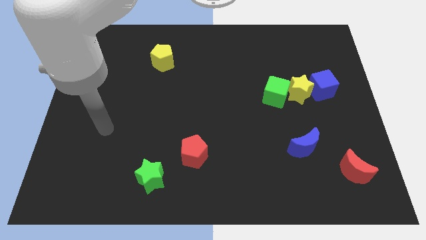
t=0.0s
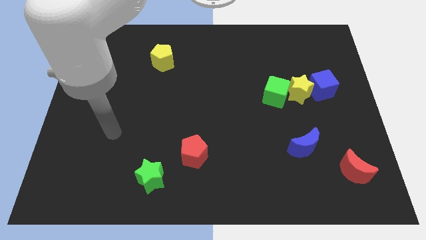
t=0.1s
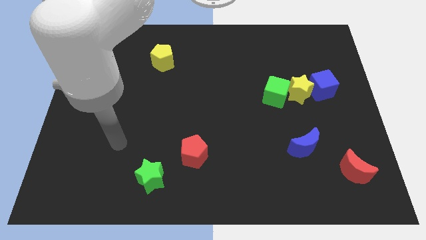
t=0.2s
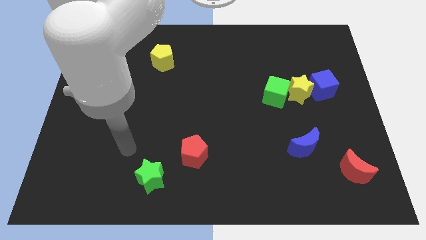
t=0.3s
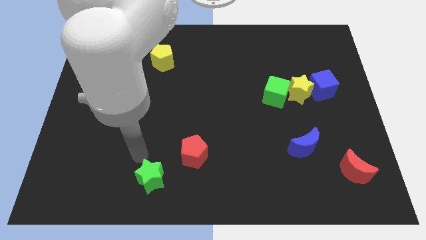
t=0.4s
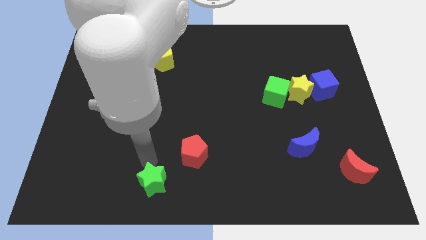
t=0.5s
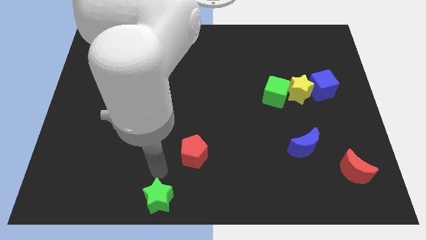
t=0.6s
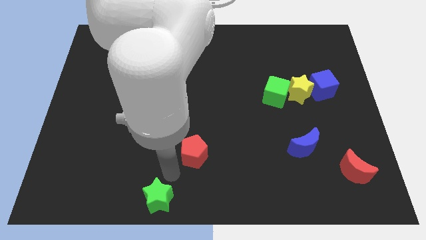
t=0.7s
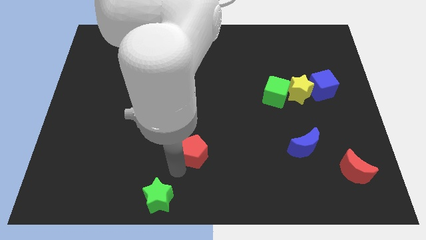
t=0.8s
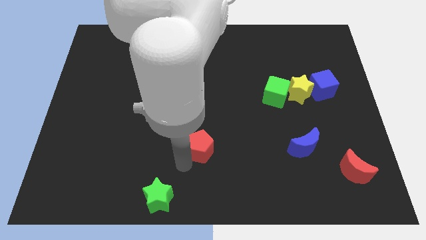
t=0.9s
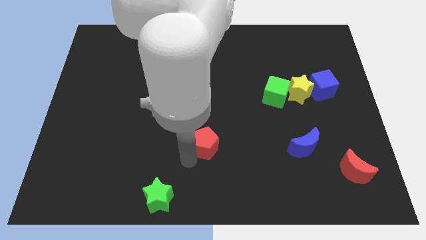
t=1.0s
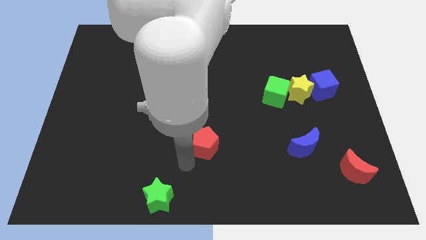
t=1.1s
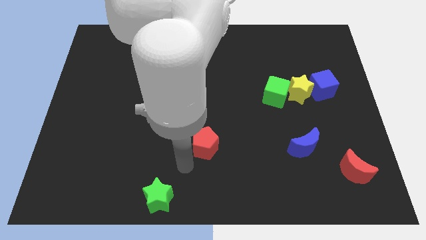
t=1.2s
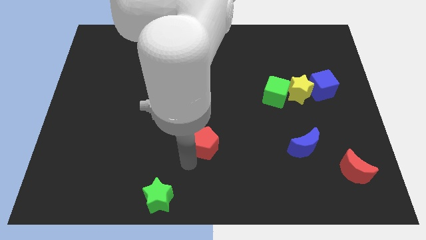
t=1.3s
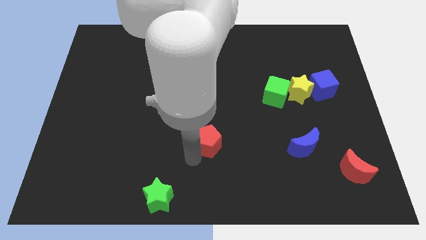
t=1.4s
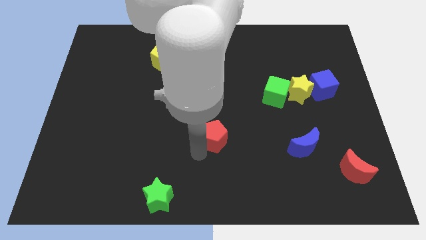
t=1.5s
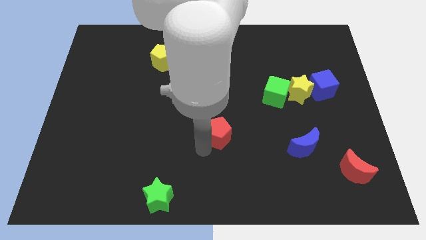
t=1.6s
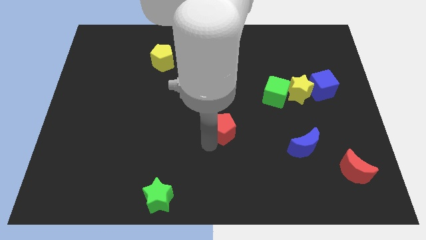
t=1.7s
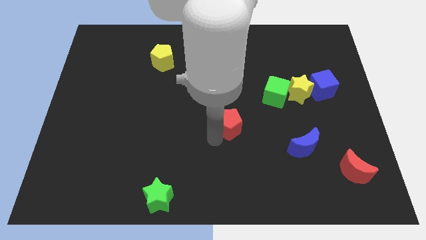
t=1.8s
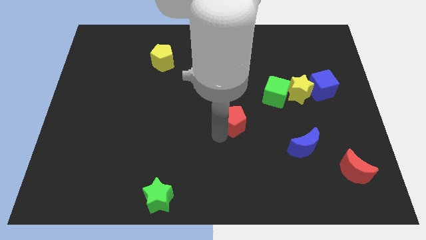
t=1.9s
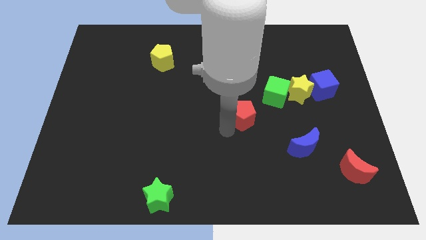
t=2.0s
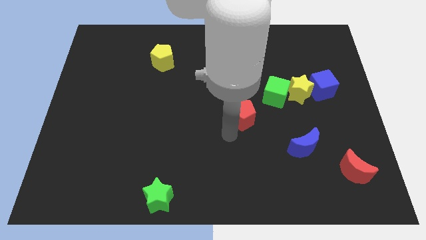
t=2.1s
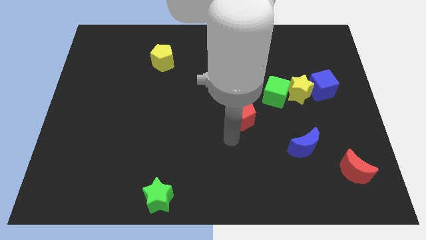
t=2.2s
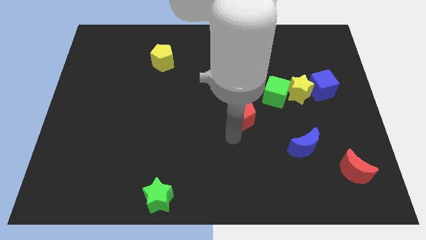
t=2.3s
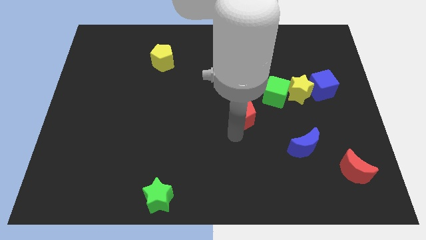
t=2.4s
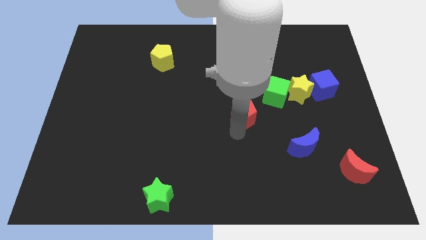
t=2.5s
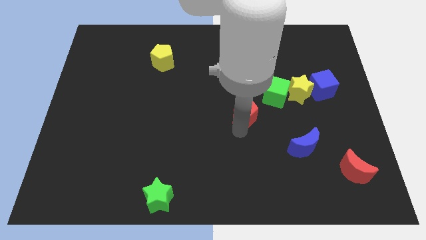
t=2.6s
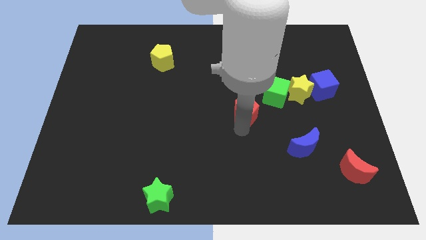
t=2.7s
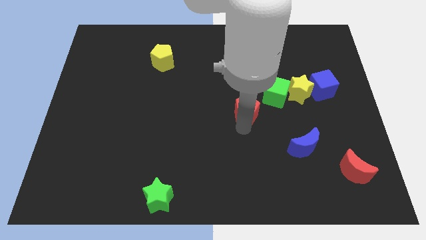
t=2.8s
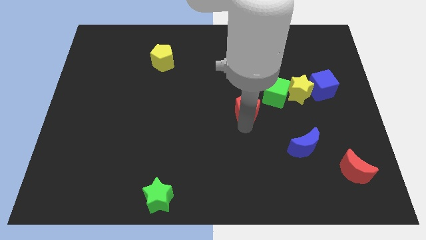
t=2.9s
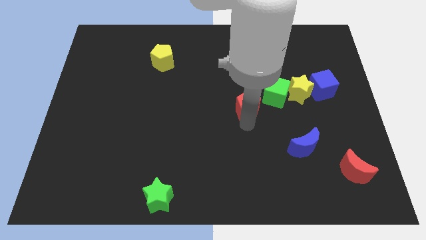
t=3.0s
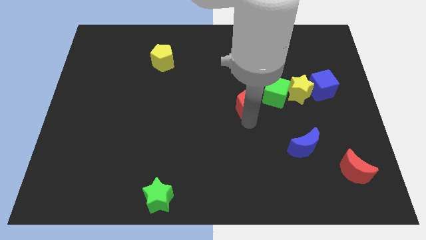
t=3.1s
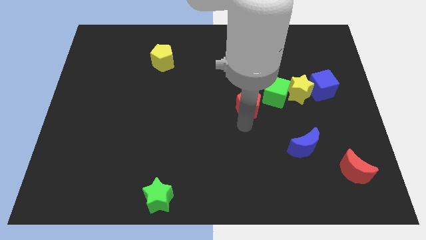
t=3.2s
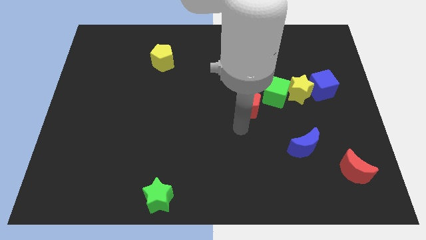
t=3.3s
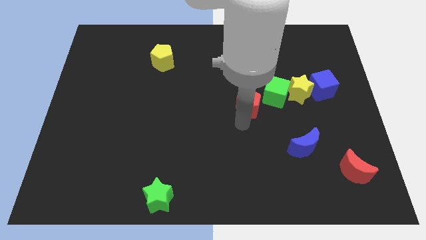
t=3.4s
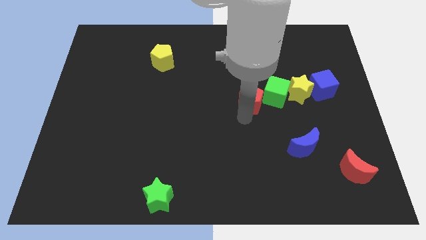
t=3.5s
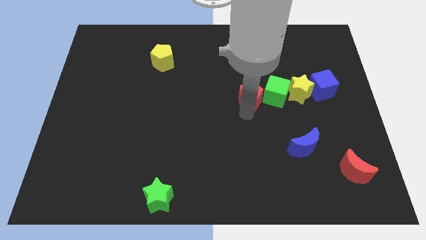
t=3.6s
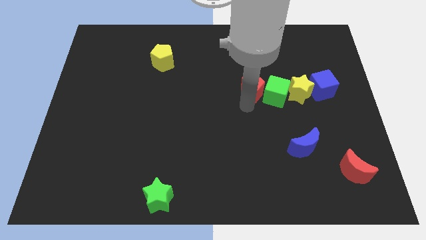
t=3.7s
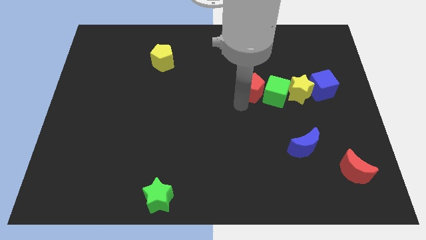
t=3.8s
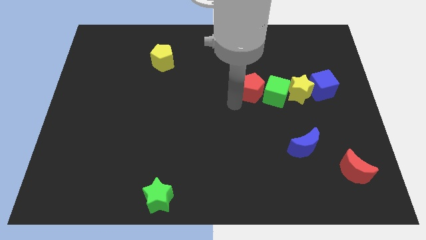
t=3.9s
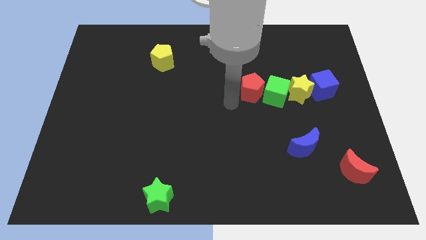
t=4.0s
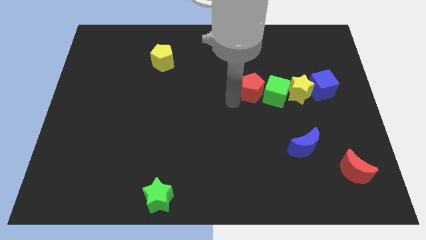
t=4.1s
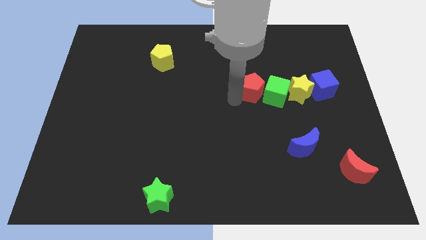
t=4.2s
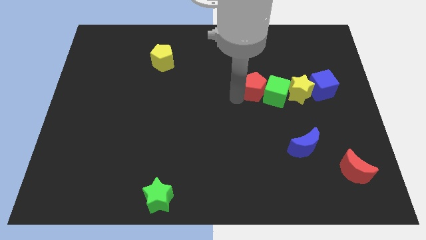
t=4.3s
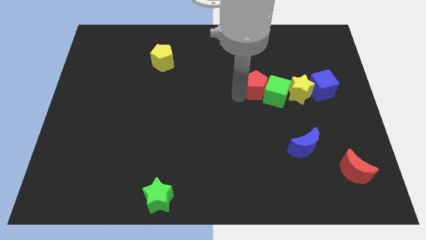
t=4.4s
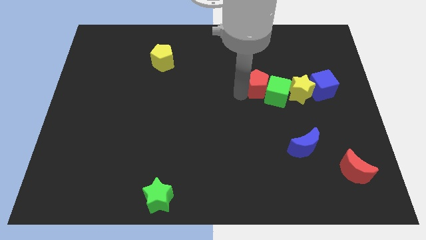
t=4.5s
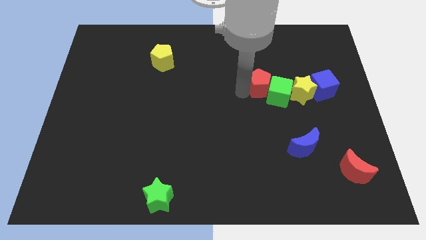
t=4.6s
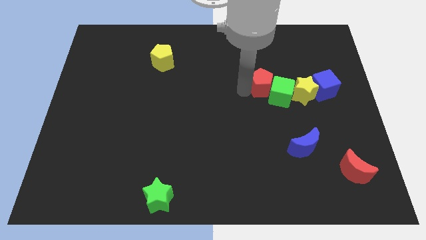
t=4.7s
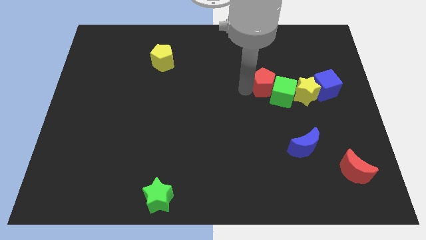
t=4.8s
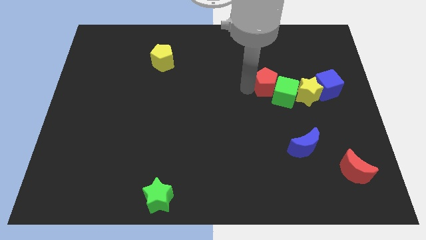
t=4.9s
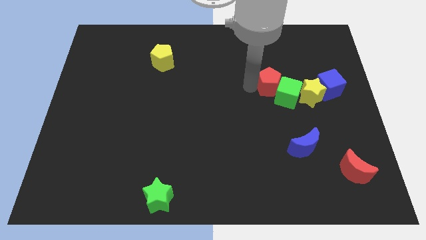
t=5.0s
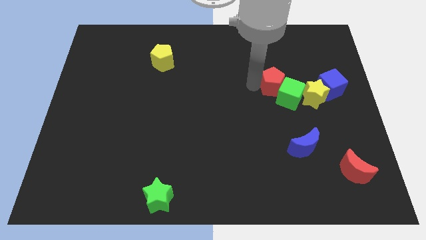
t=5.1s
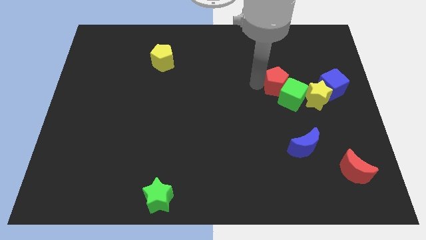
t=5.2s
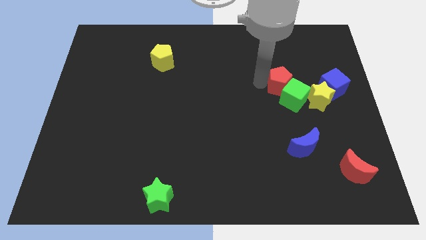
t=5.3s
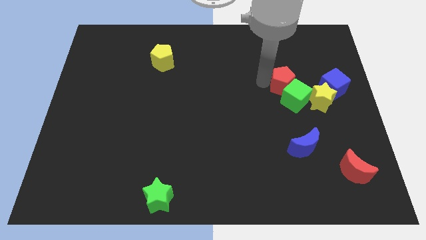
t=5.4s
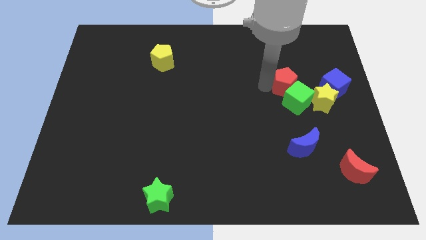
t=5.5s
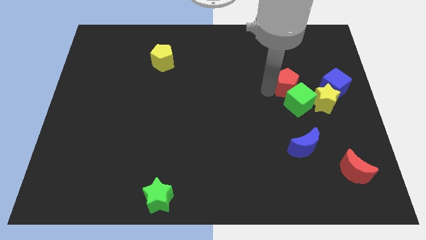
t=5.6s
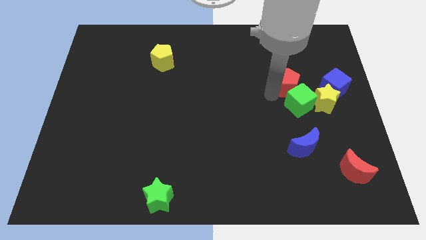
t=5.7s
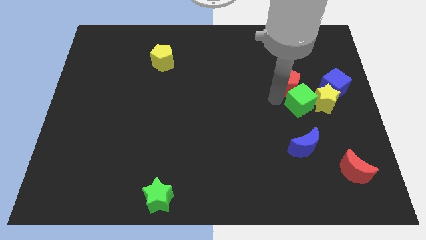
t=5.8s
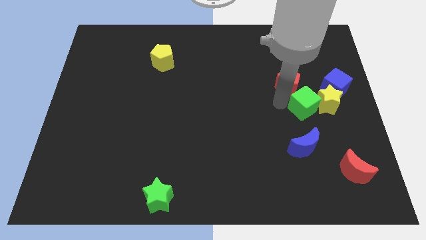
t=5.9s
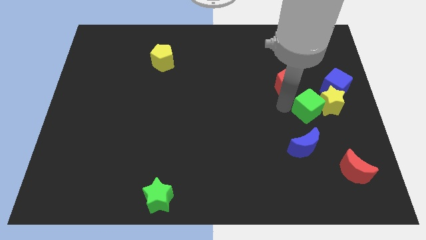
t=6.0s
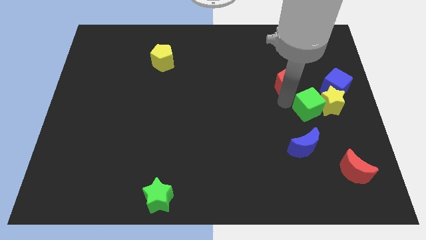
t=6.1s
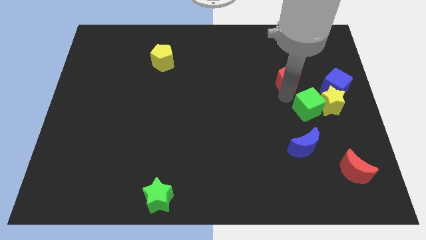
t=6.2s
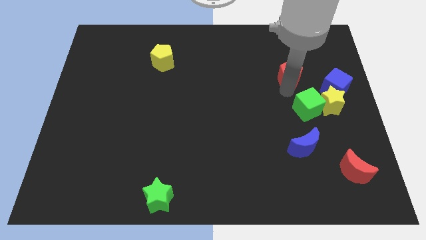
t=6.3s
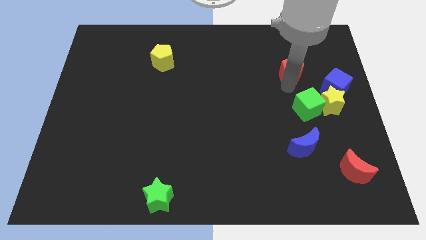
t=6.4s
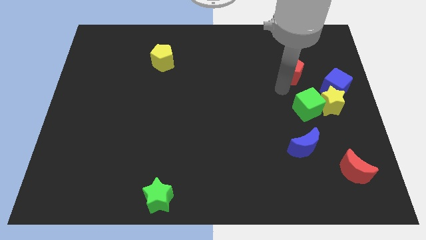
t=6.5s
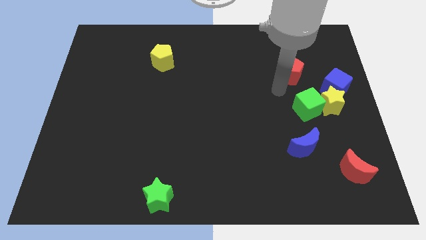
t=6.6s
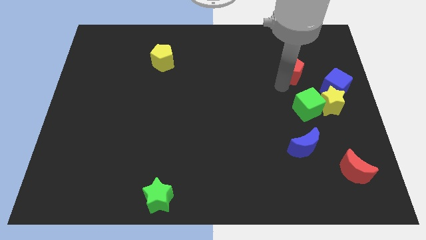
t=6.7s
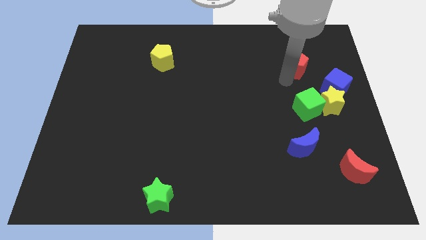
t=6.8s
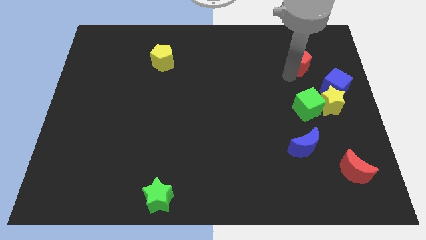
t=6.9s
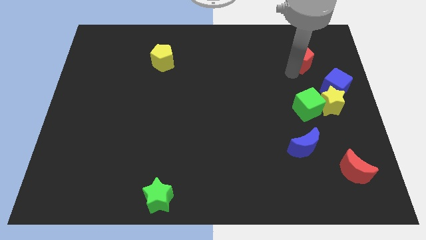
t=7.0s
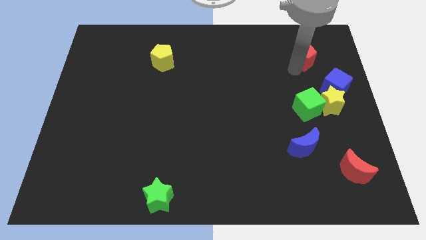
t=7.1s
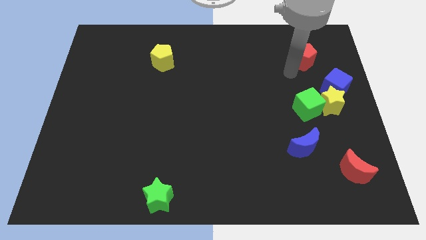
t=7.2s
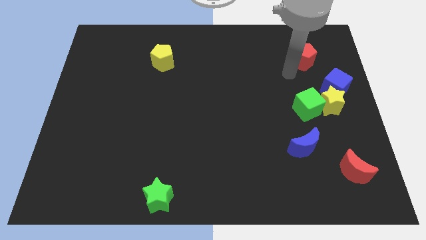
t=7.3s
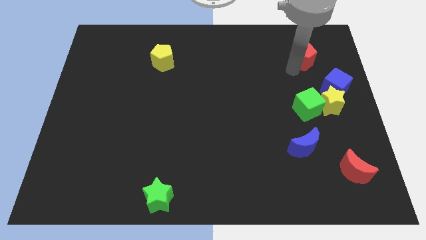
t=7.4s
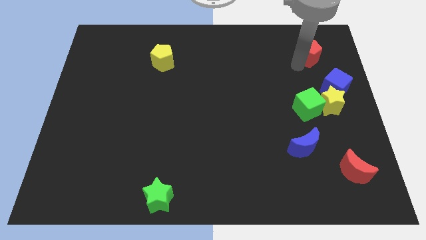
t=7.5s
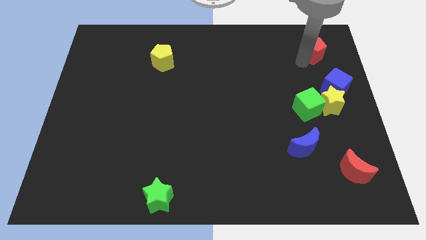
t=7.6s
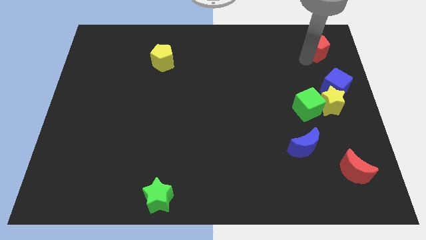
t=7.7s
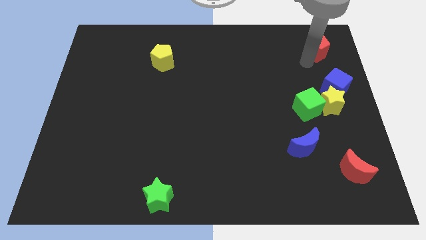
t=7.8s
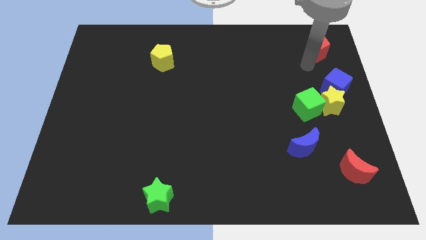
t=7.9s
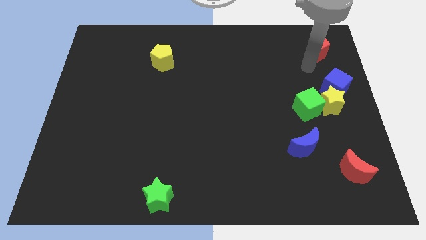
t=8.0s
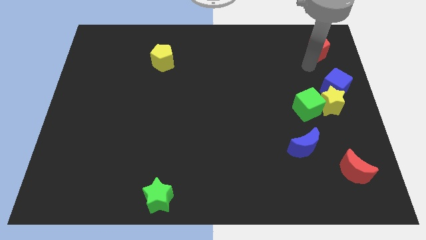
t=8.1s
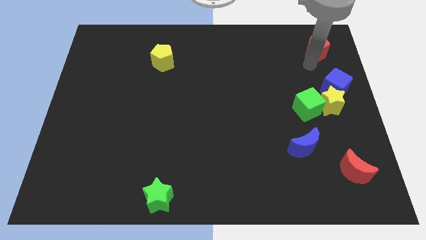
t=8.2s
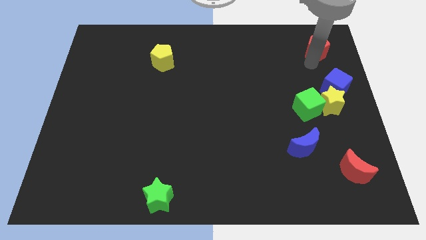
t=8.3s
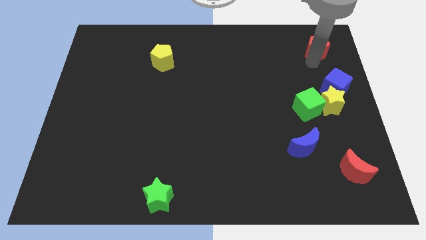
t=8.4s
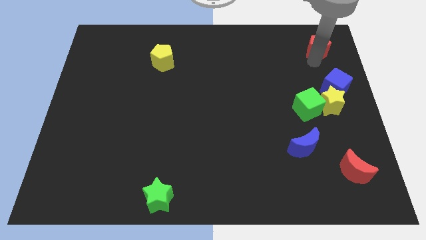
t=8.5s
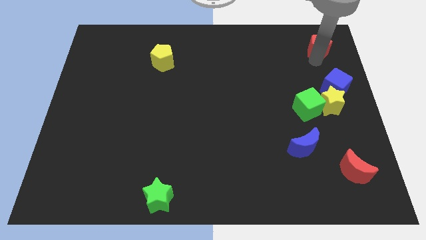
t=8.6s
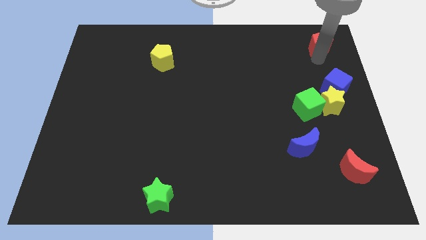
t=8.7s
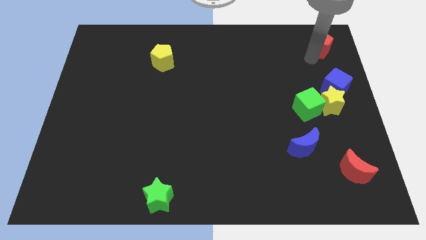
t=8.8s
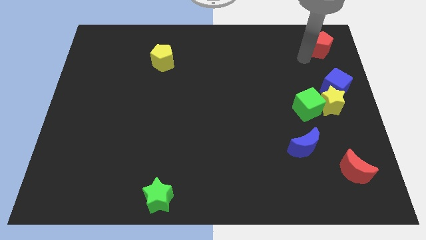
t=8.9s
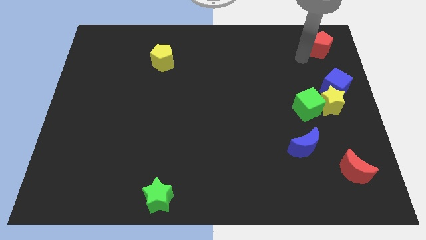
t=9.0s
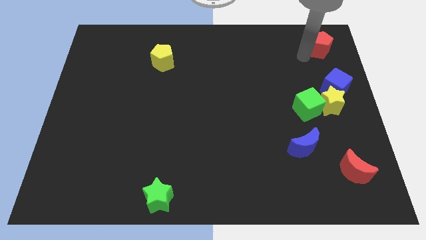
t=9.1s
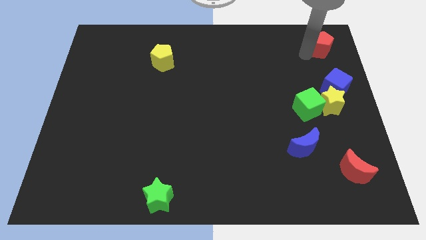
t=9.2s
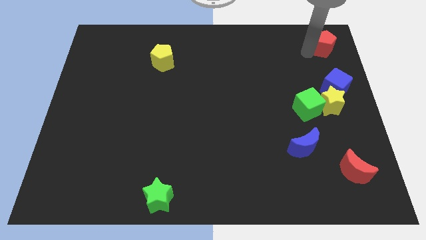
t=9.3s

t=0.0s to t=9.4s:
slide the red pentagon to the upper right corner
